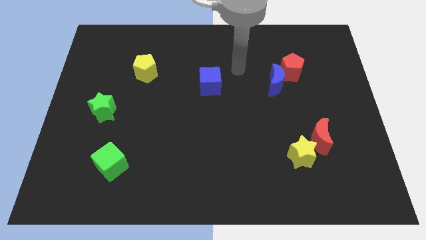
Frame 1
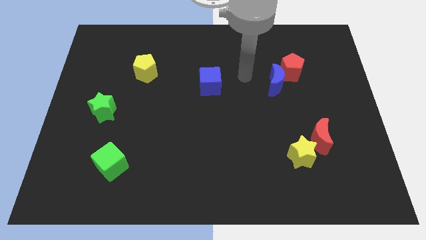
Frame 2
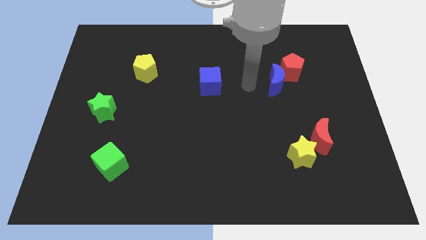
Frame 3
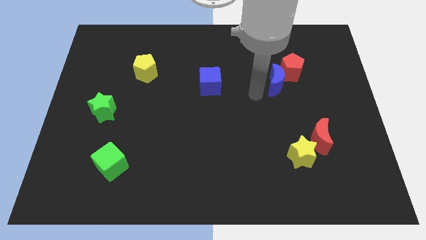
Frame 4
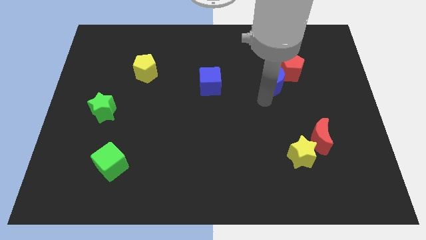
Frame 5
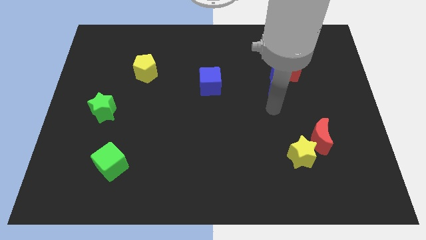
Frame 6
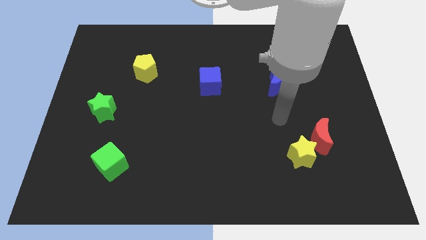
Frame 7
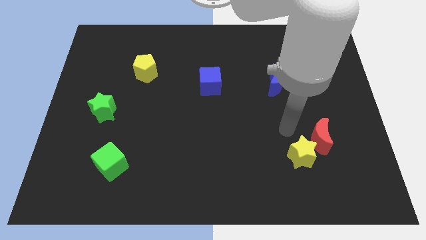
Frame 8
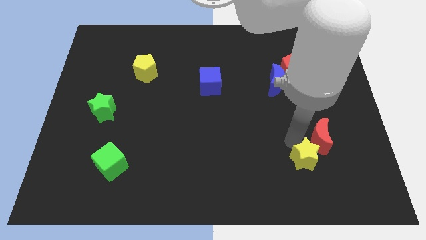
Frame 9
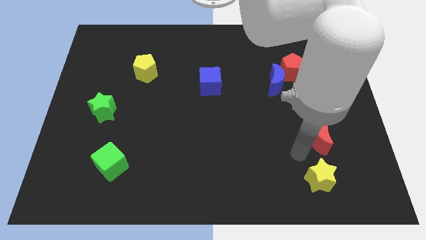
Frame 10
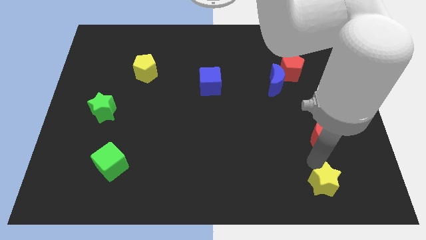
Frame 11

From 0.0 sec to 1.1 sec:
separate the red moon from the yellow star

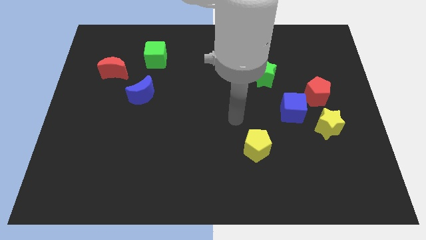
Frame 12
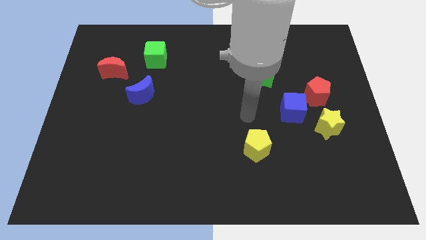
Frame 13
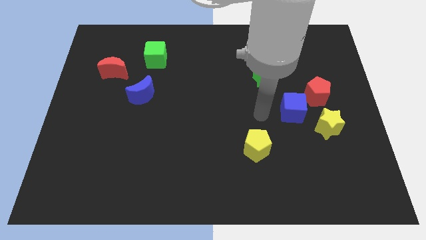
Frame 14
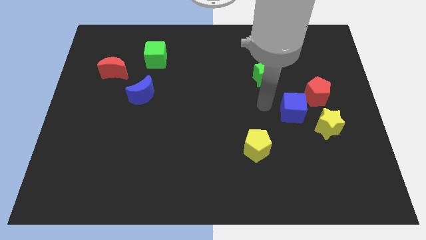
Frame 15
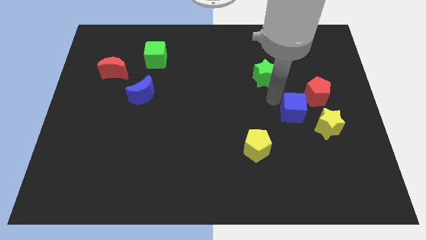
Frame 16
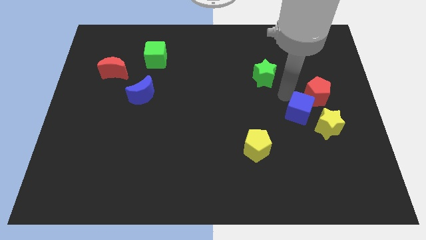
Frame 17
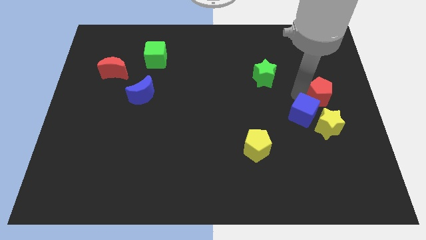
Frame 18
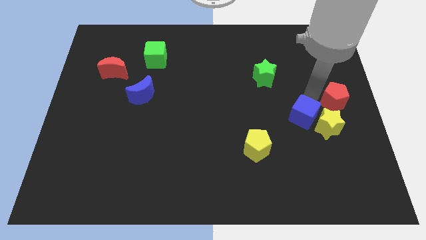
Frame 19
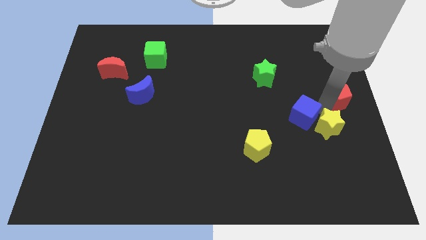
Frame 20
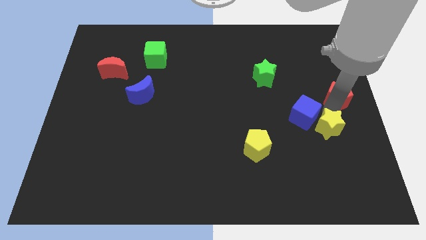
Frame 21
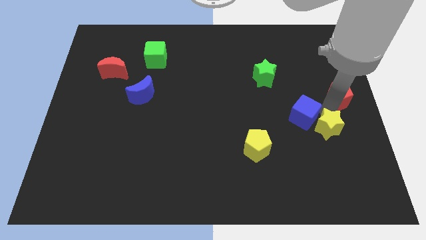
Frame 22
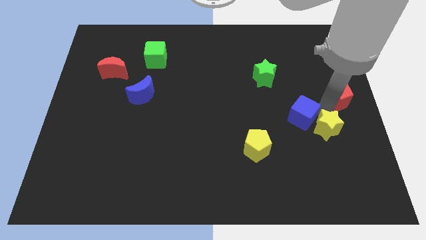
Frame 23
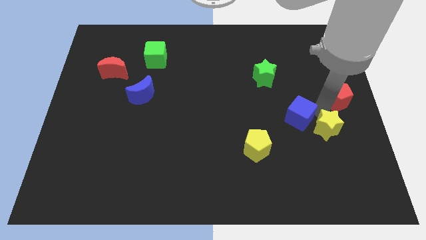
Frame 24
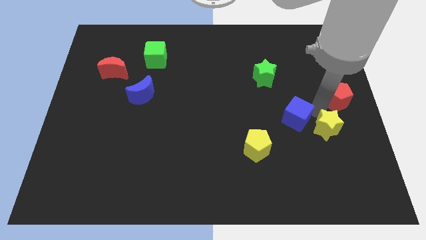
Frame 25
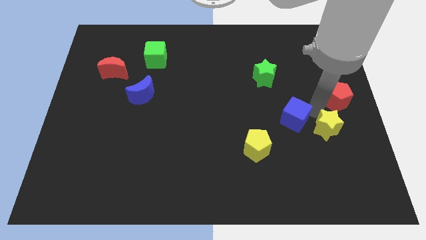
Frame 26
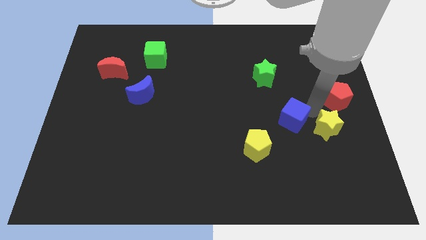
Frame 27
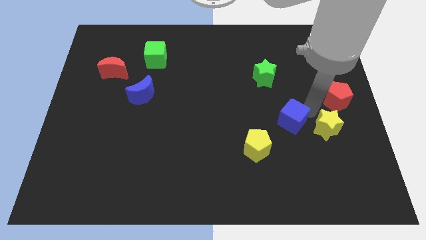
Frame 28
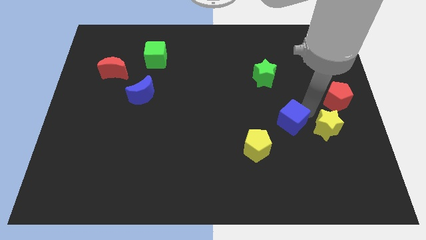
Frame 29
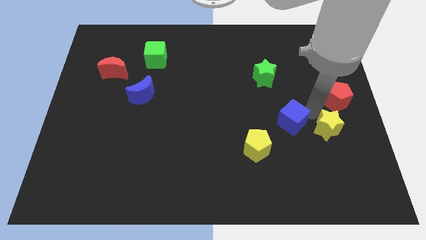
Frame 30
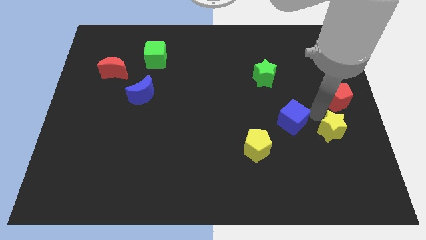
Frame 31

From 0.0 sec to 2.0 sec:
move the blue cube away from the red pentagon and yellow star

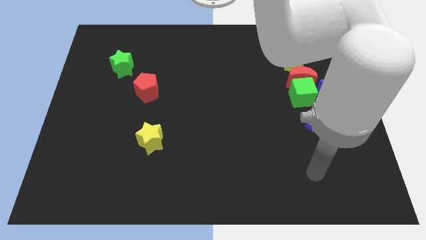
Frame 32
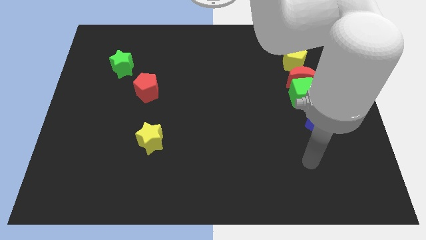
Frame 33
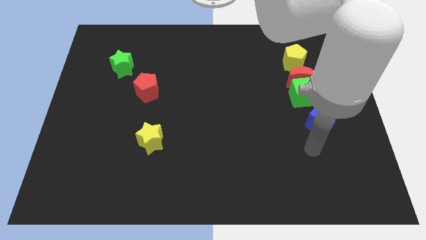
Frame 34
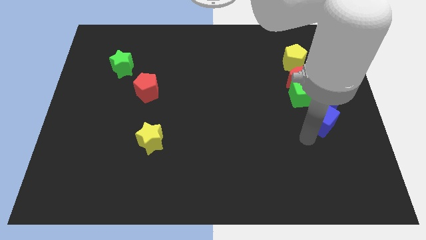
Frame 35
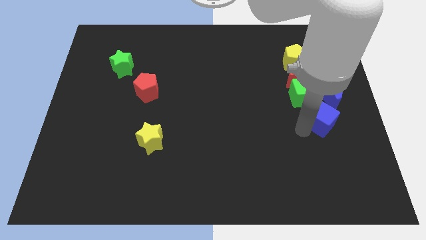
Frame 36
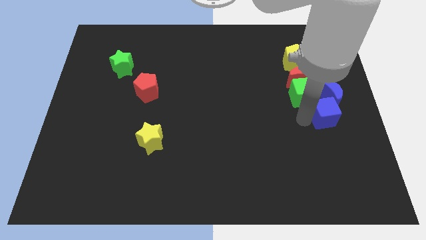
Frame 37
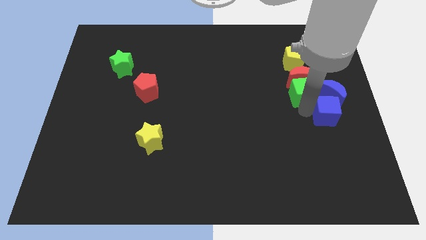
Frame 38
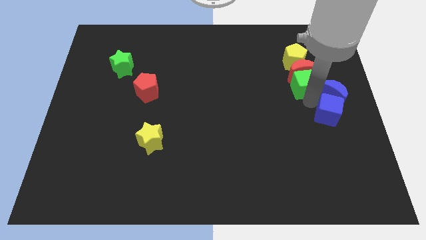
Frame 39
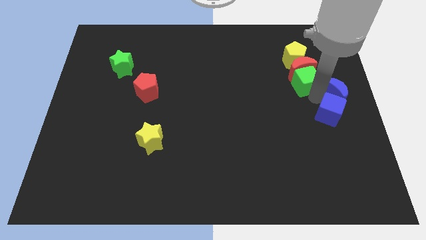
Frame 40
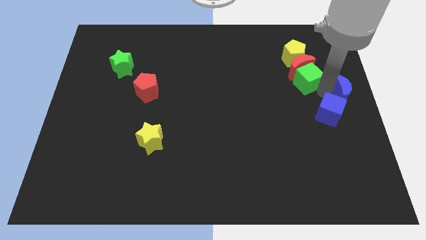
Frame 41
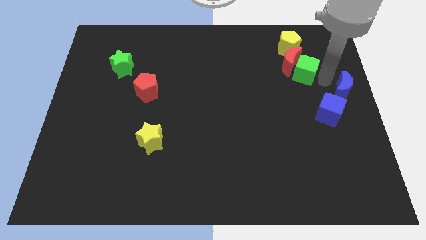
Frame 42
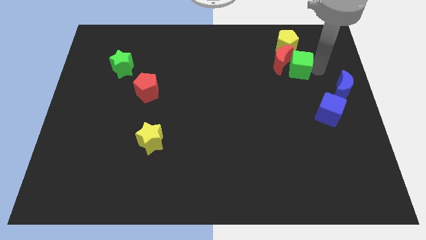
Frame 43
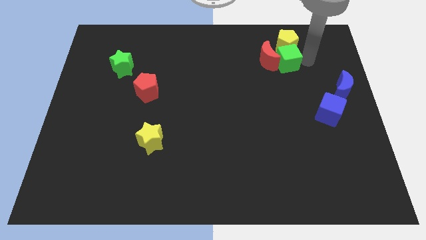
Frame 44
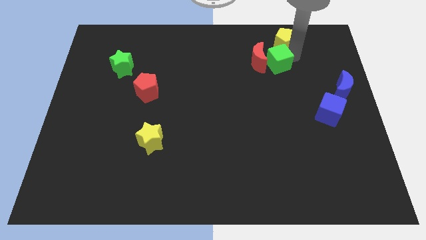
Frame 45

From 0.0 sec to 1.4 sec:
pull the red moon apart from the green cube, yellow pentagon, and blue moon

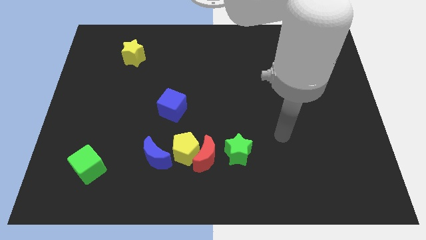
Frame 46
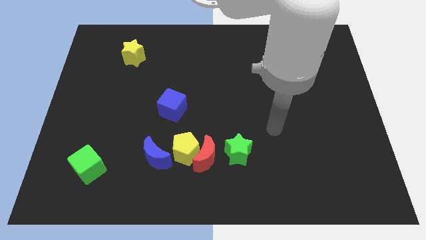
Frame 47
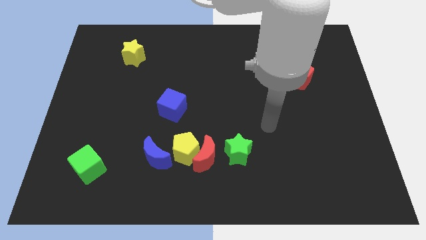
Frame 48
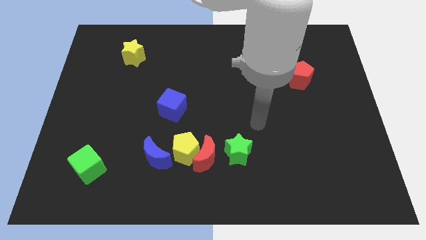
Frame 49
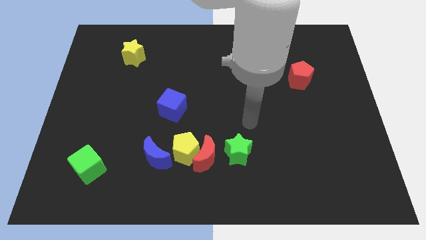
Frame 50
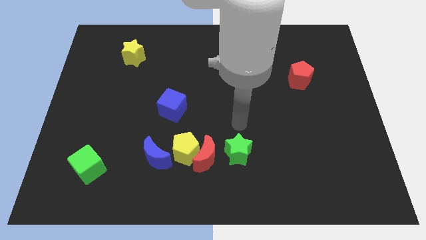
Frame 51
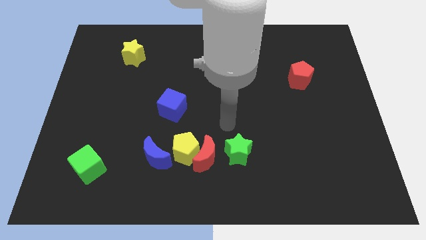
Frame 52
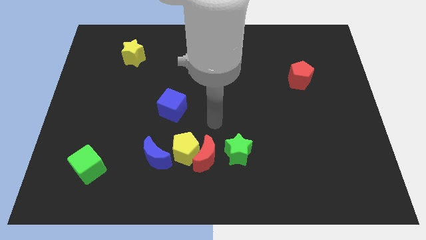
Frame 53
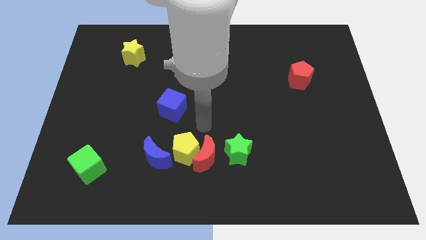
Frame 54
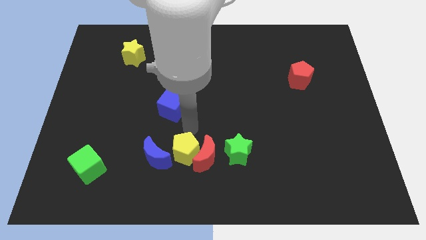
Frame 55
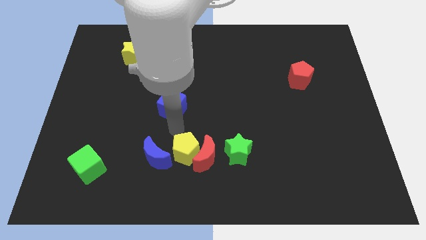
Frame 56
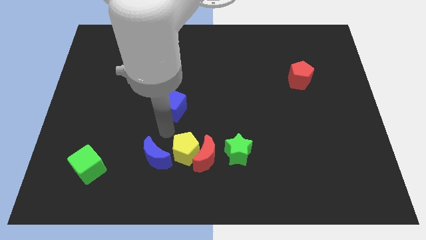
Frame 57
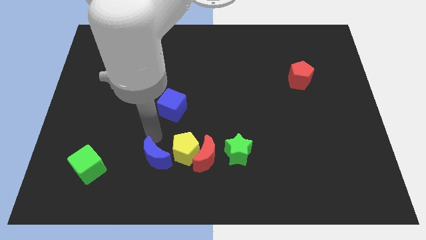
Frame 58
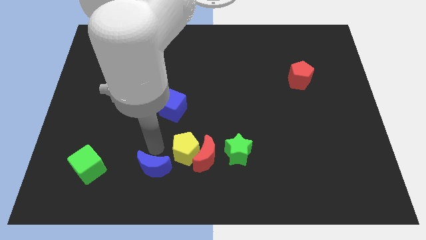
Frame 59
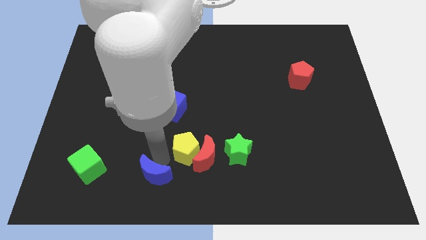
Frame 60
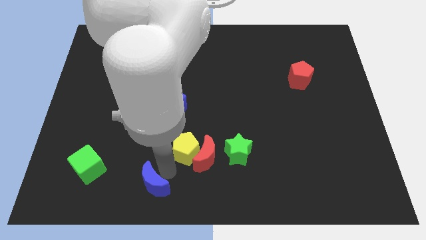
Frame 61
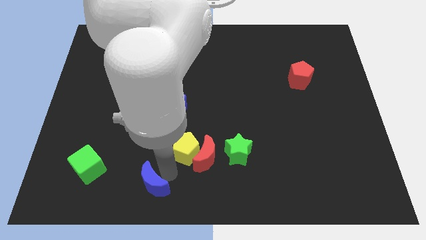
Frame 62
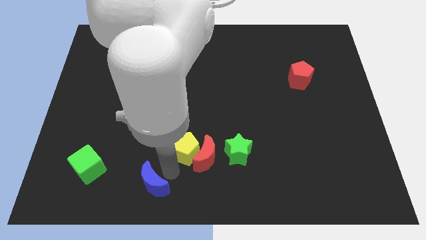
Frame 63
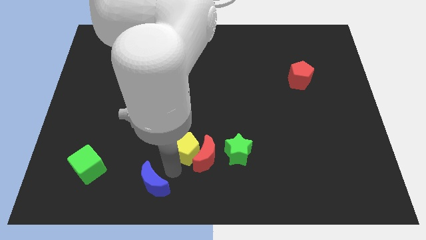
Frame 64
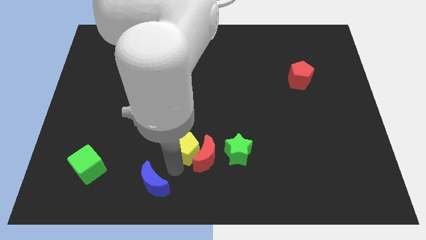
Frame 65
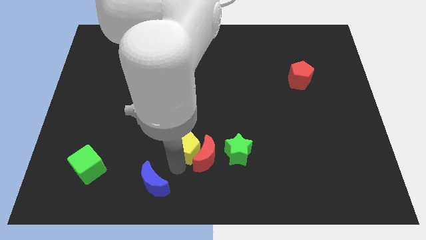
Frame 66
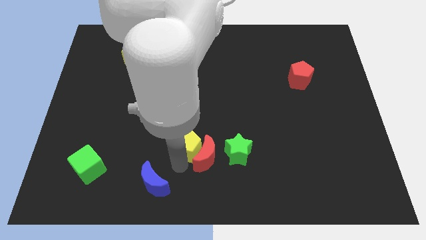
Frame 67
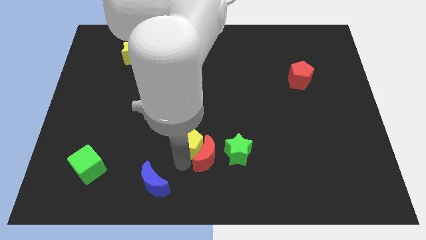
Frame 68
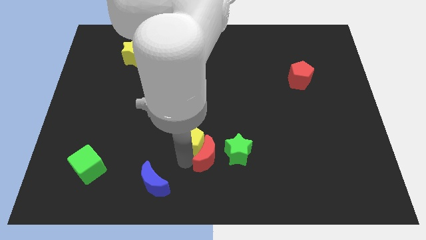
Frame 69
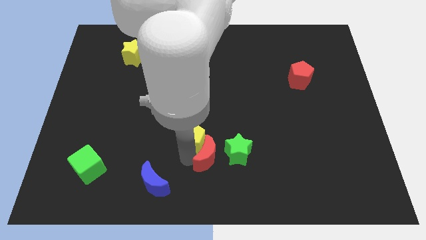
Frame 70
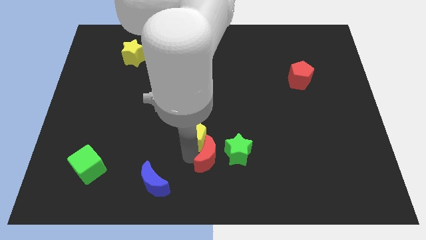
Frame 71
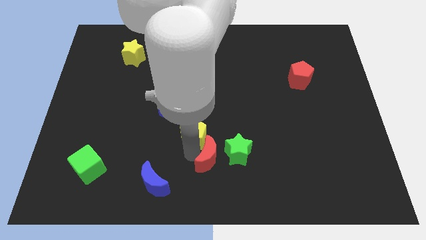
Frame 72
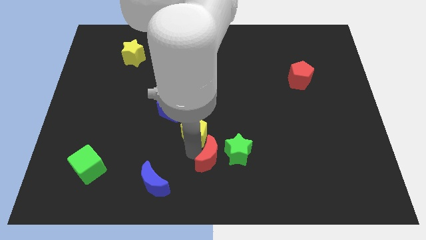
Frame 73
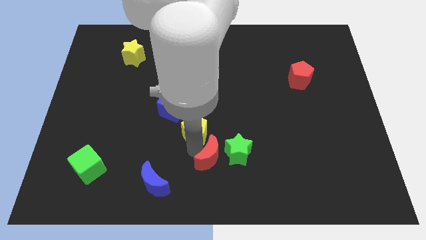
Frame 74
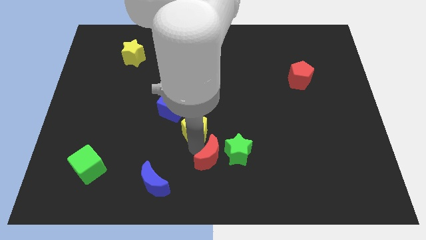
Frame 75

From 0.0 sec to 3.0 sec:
separate the yellow pentagon from the red moon and blue moon

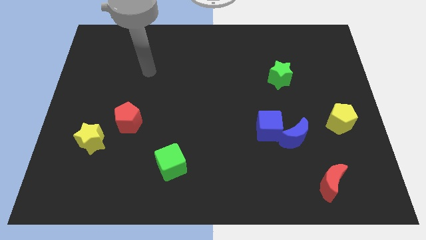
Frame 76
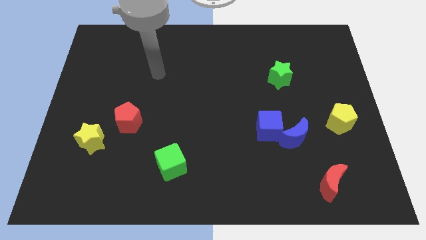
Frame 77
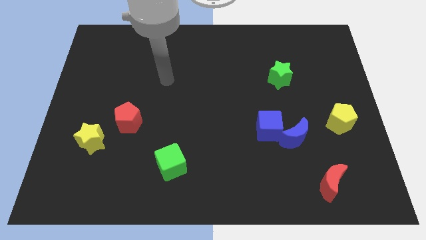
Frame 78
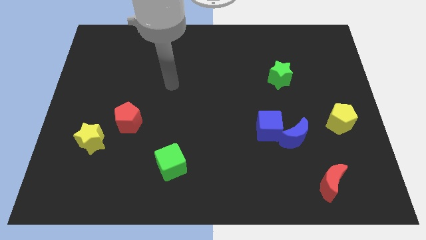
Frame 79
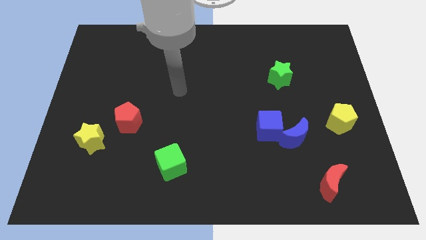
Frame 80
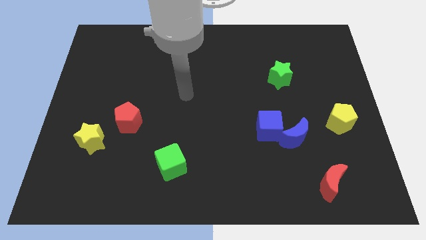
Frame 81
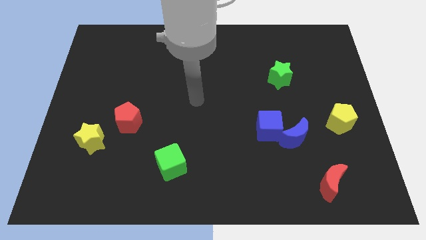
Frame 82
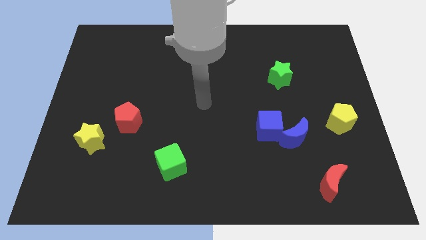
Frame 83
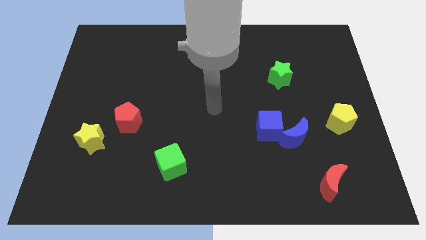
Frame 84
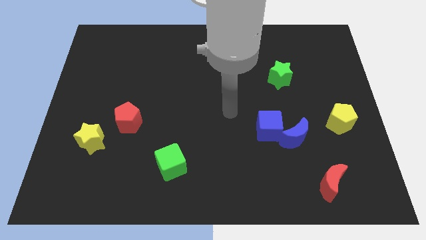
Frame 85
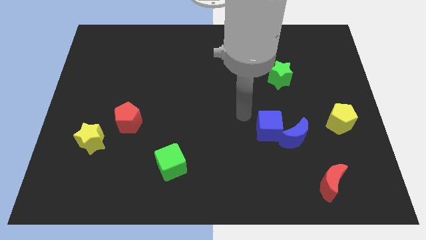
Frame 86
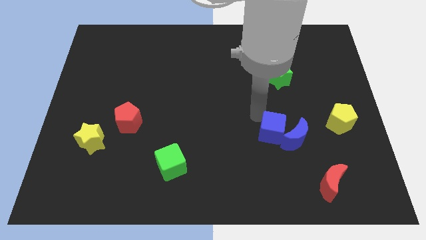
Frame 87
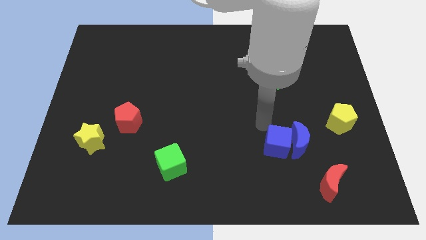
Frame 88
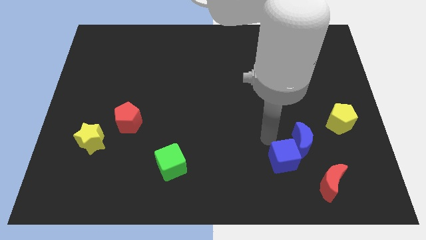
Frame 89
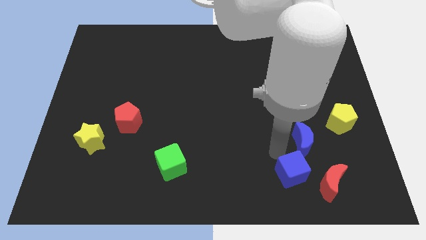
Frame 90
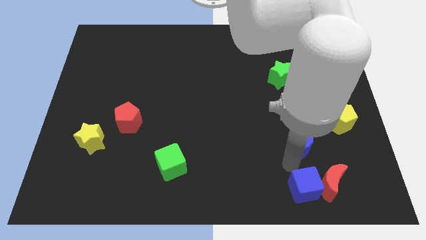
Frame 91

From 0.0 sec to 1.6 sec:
pull the blue moon apart from the blue cube
